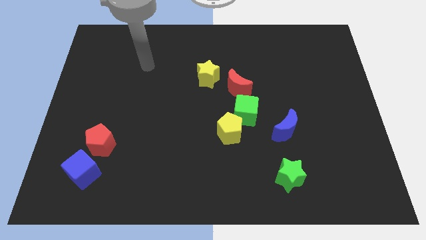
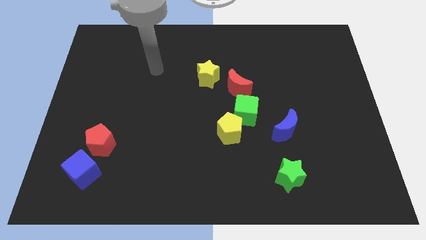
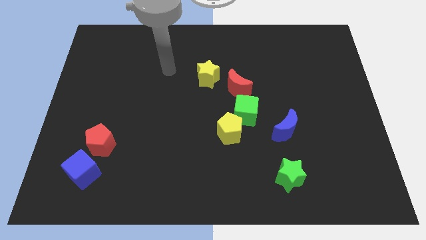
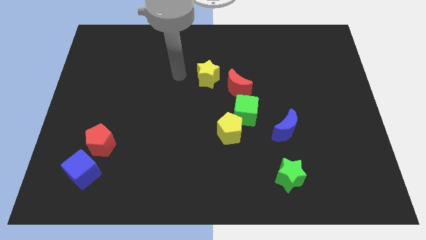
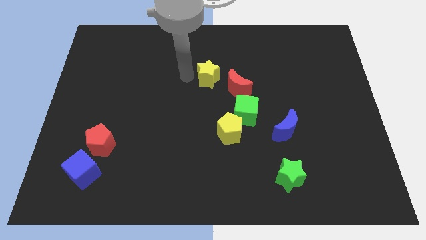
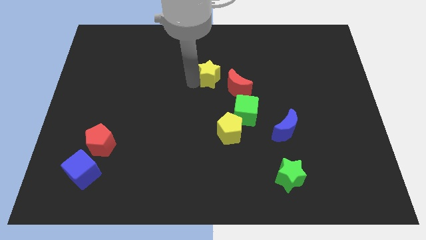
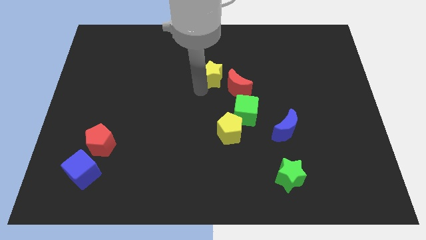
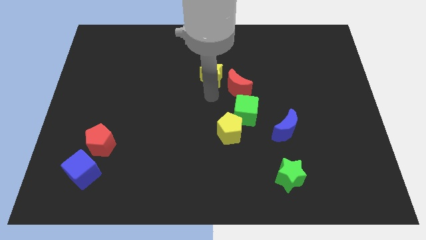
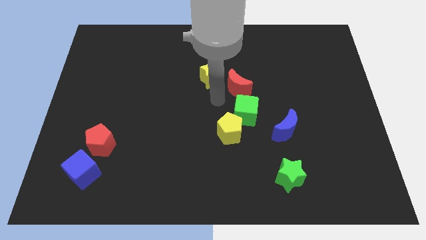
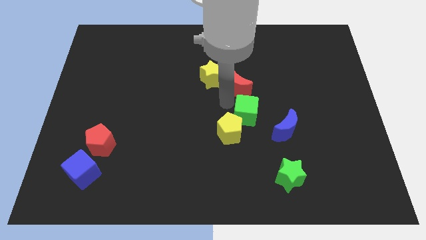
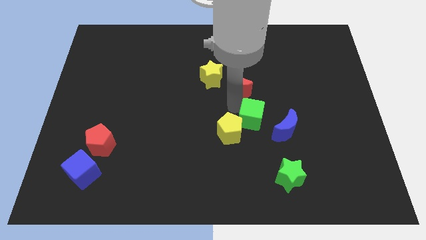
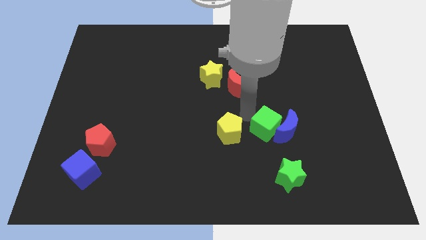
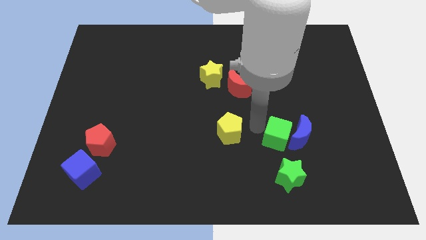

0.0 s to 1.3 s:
separate the yellow pentagon from the green cube

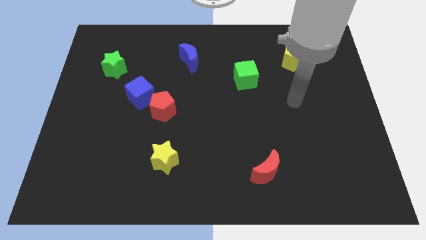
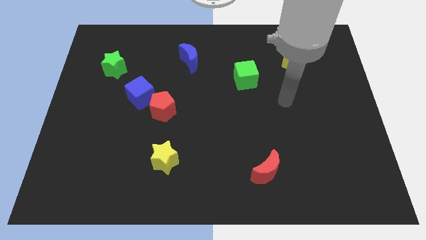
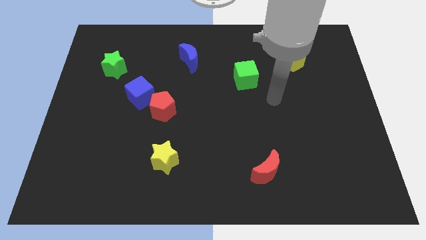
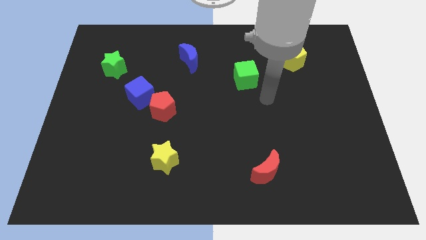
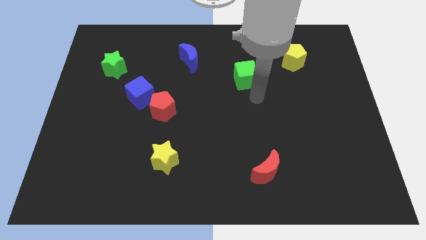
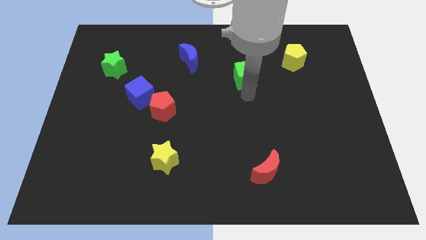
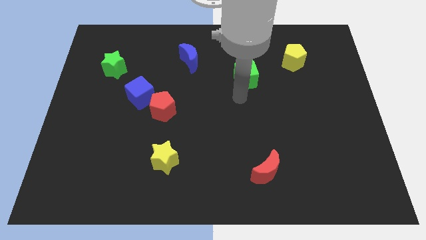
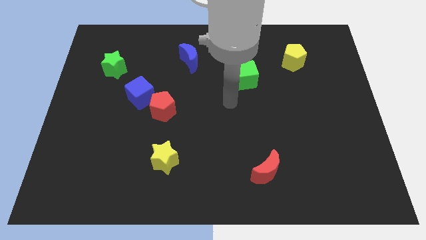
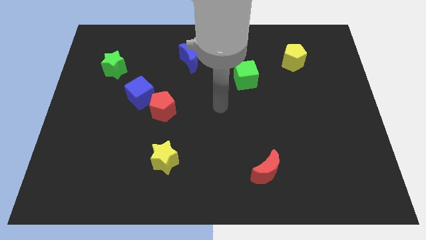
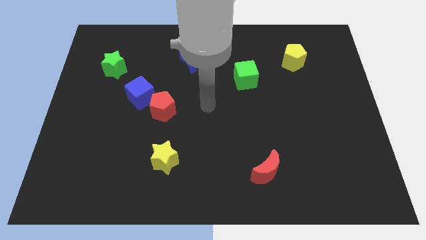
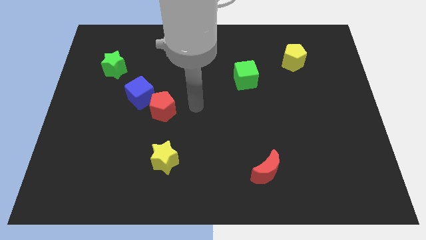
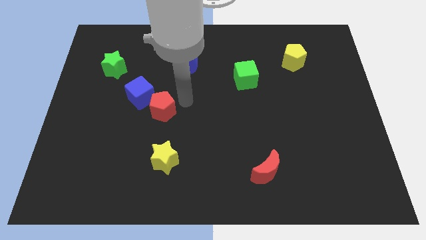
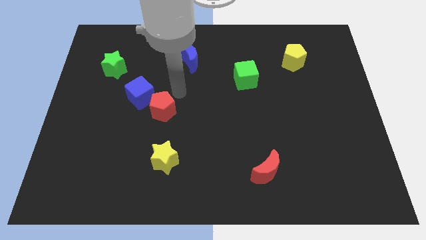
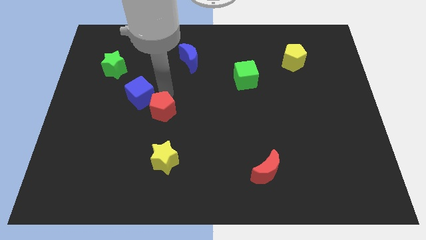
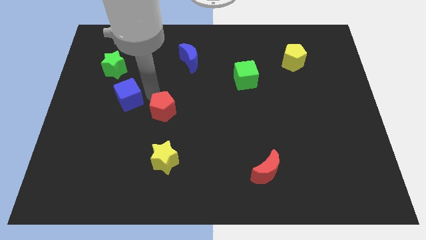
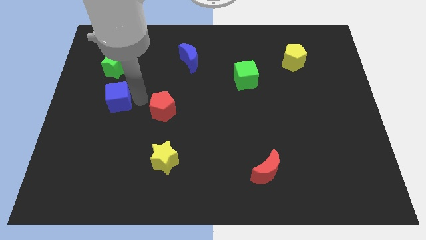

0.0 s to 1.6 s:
pull the red pentagon apart from the blue cube

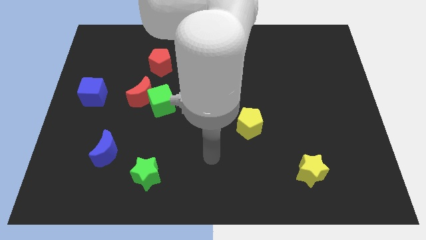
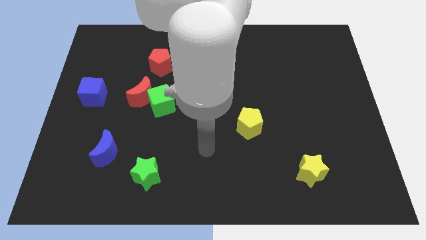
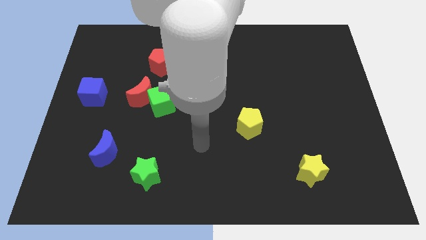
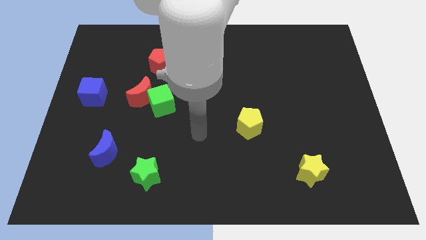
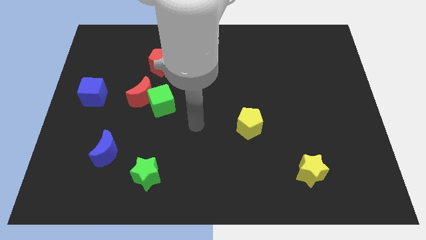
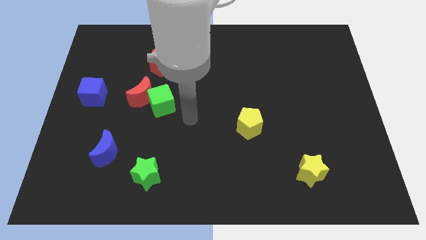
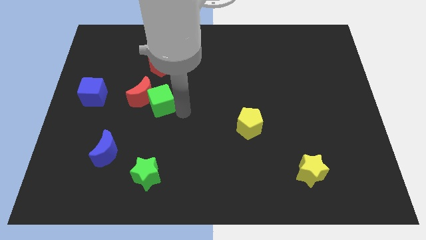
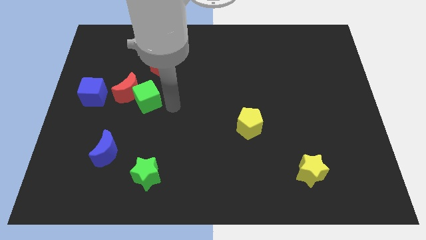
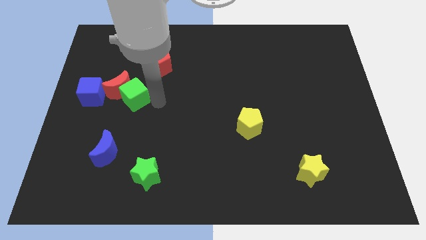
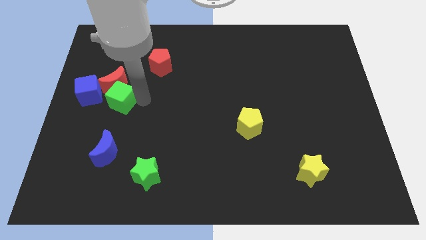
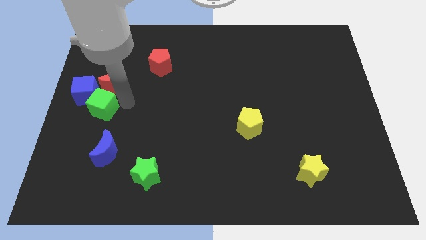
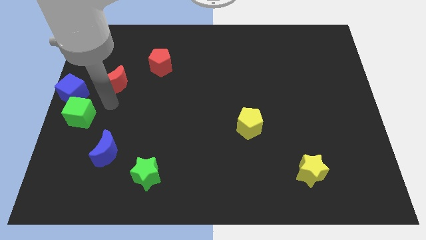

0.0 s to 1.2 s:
separate the red moon from the green cube

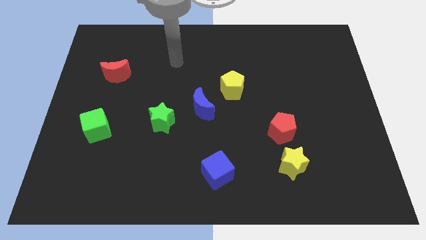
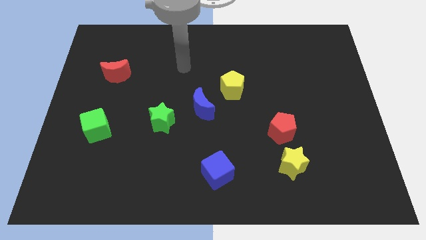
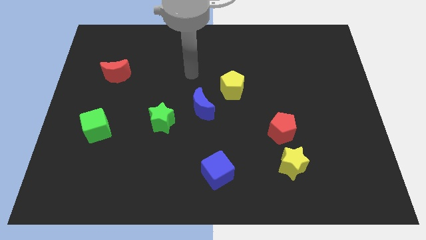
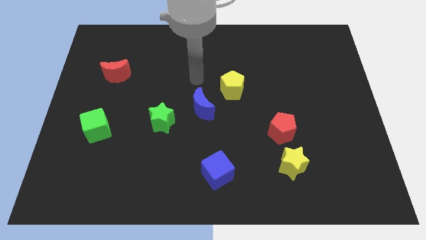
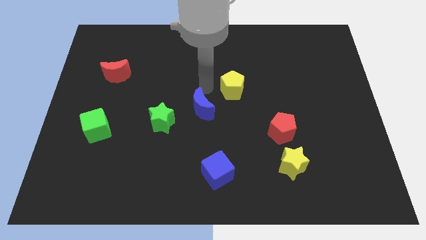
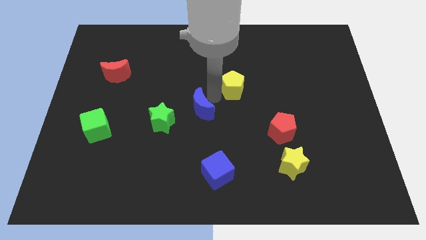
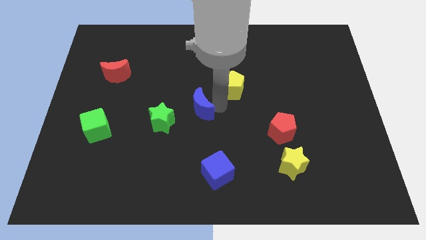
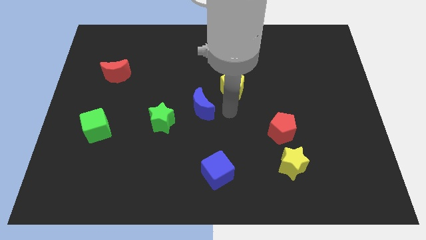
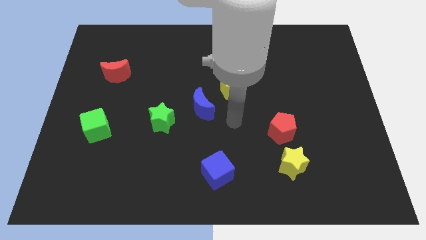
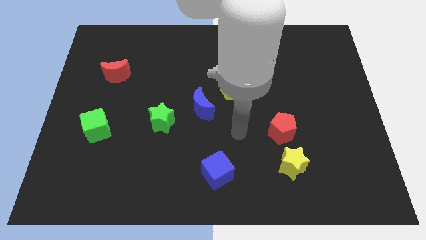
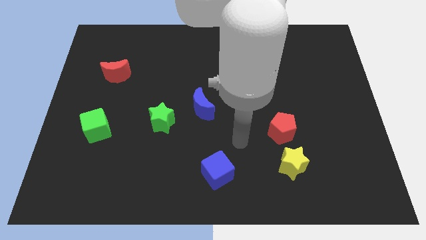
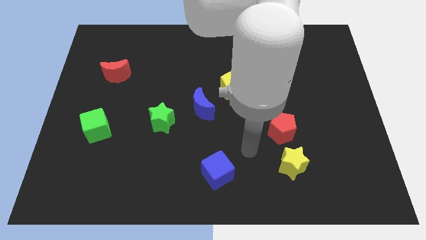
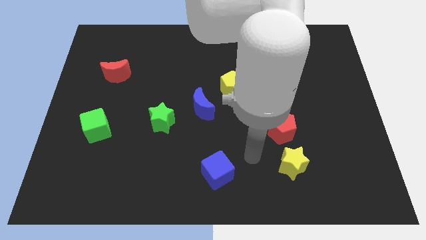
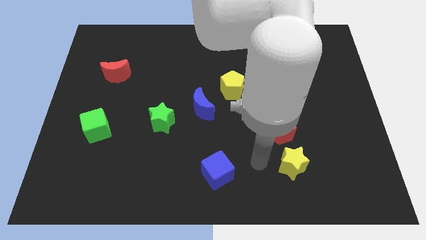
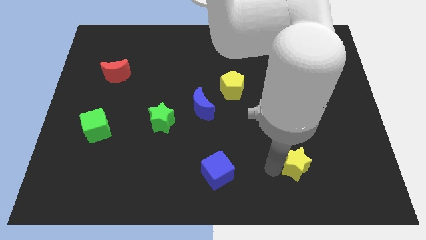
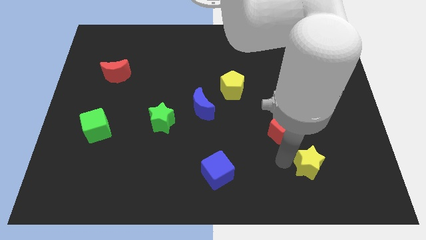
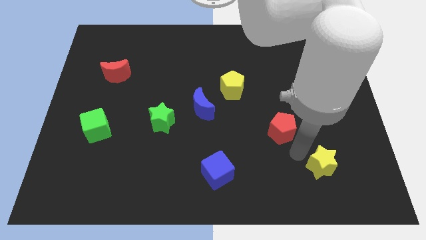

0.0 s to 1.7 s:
separate the red pentagon from the yellow star

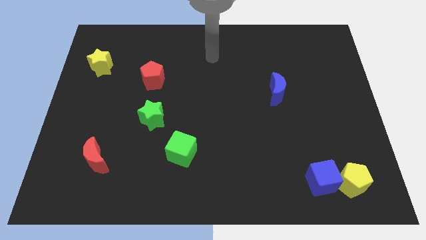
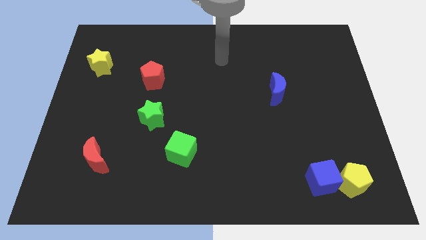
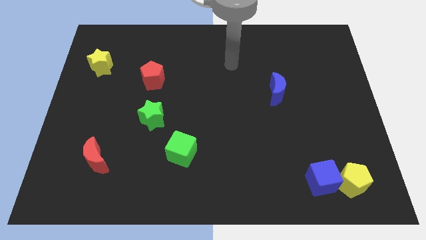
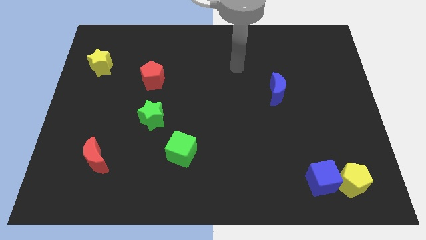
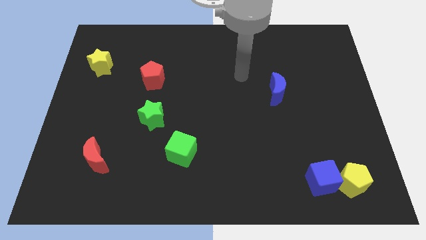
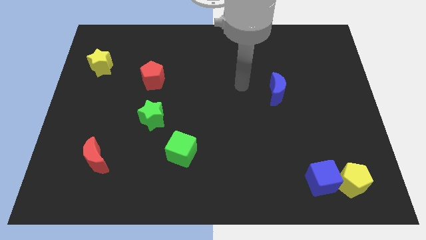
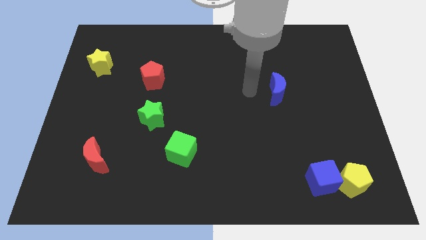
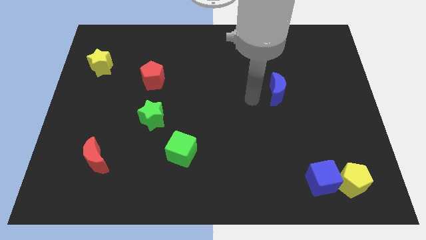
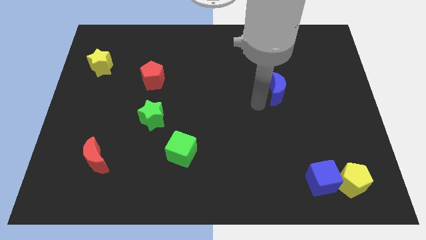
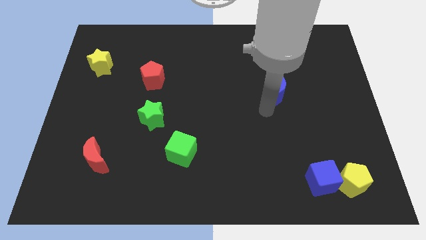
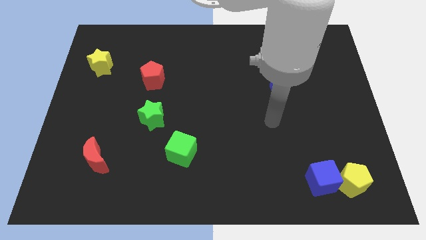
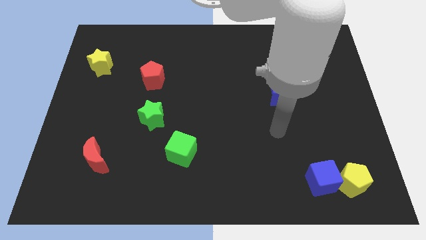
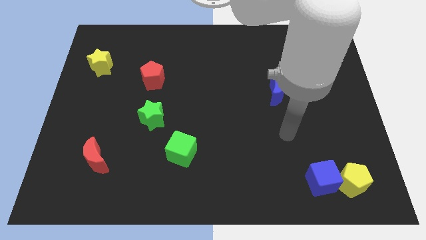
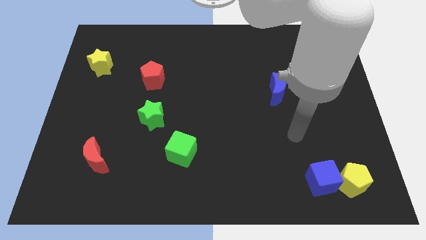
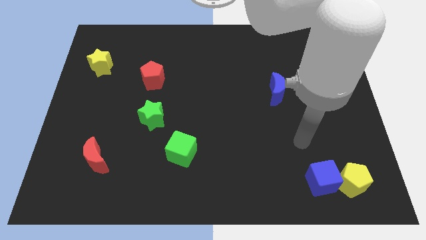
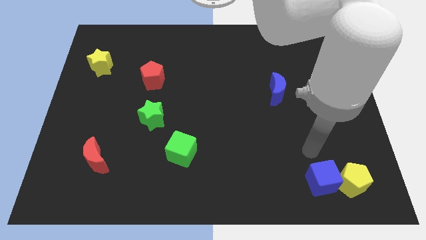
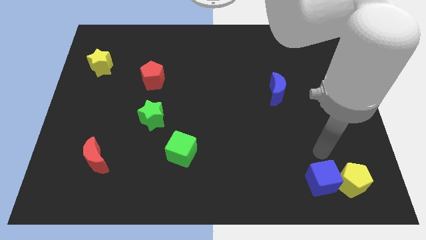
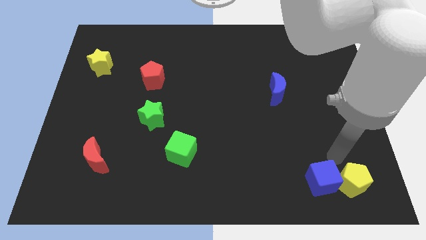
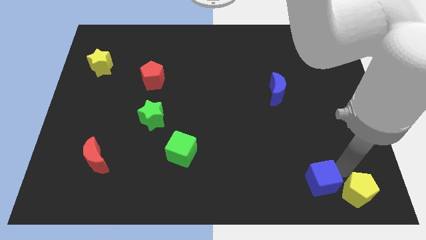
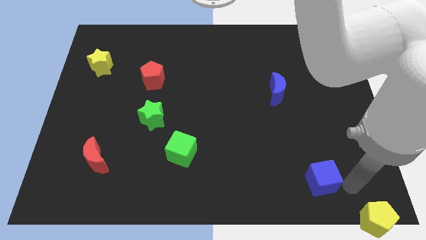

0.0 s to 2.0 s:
pull the blue cube apart from the yellow pentagon

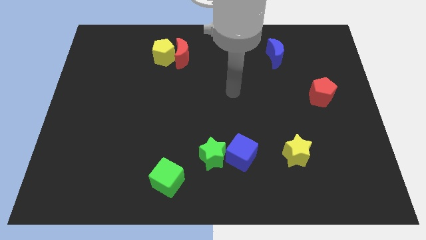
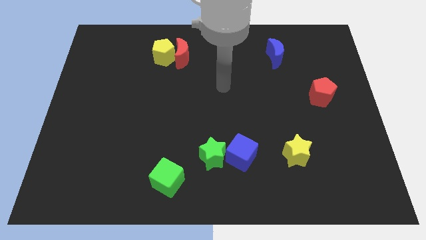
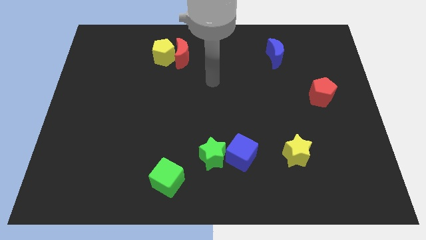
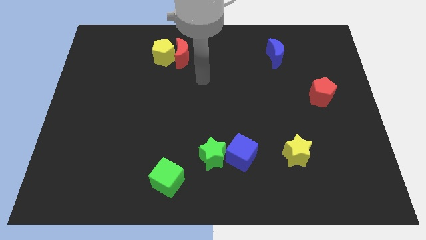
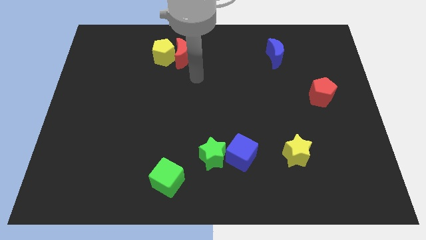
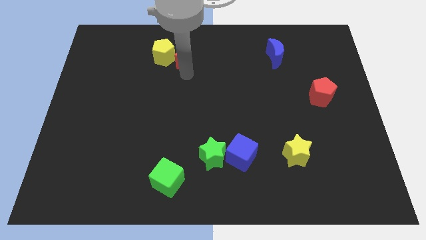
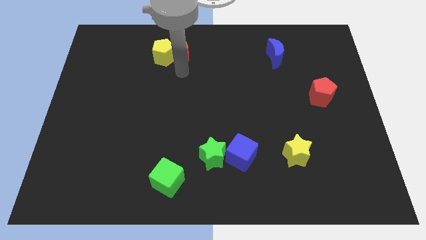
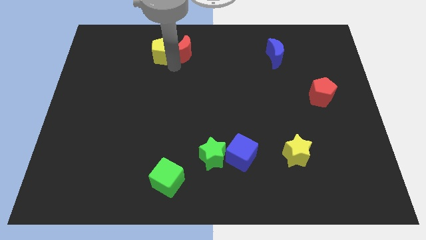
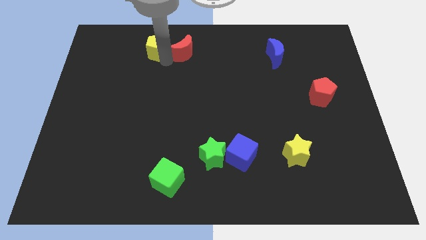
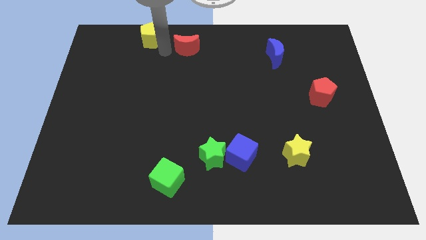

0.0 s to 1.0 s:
pull the red moon apart from the yellow pentagon

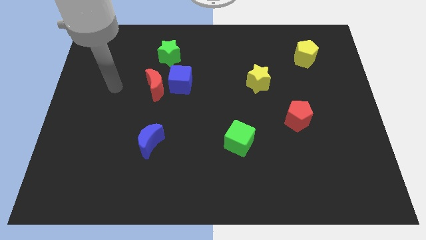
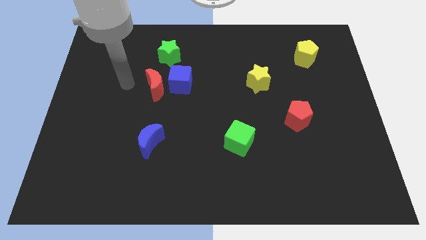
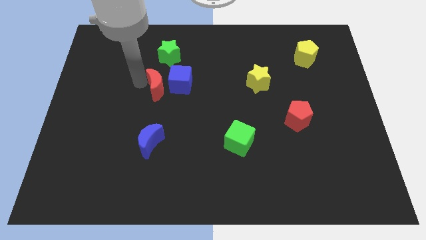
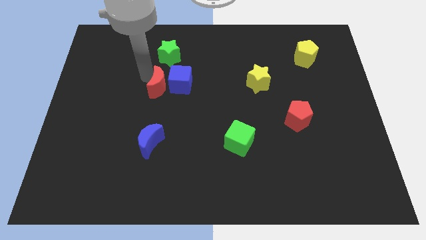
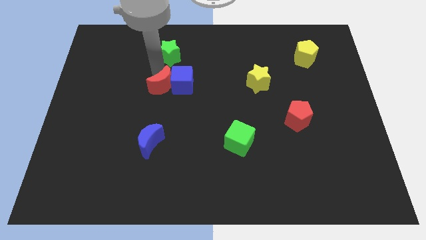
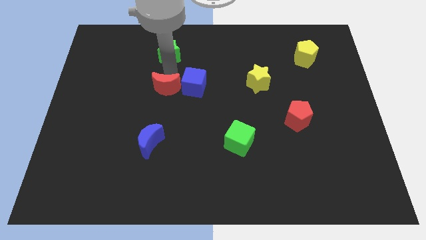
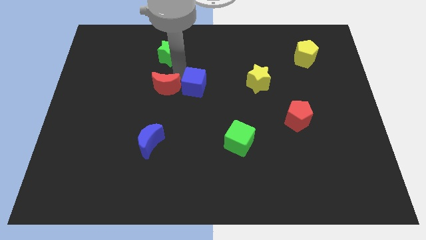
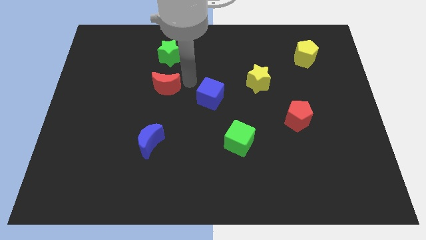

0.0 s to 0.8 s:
move the red moon away from the blue cube
